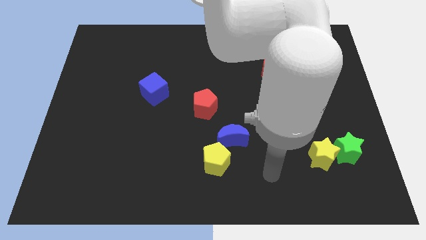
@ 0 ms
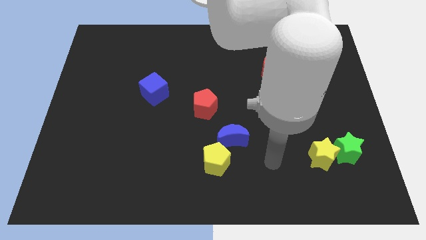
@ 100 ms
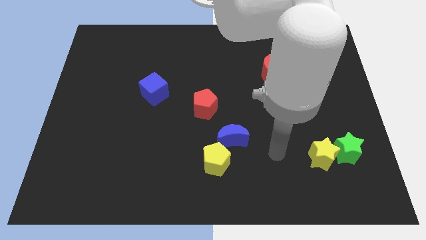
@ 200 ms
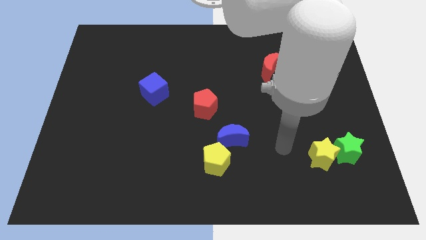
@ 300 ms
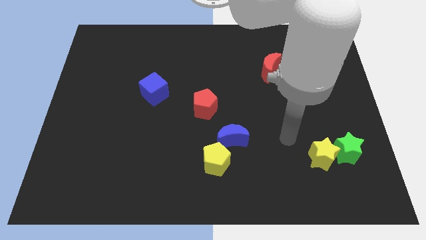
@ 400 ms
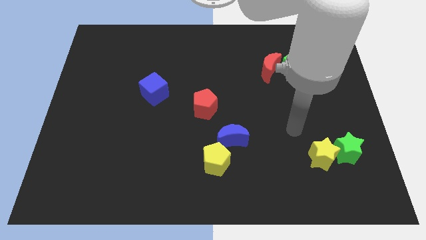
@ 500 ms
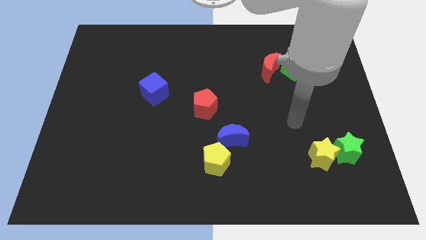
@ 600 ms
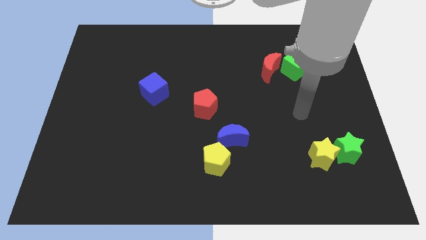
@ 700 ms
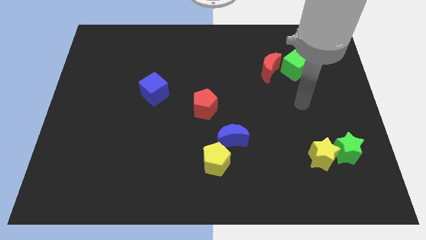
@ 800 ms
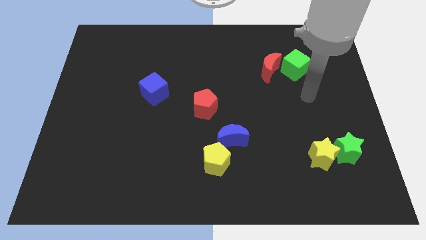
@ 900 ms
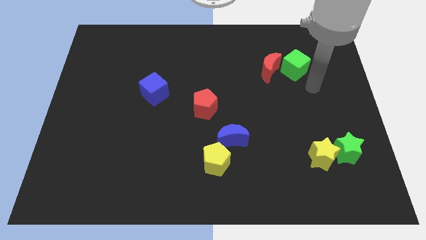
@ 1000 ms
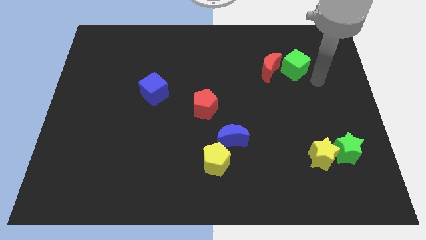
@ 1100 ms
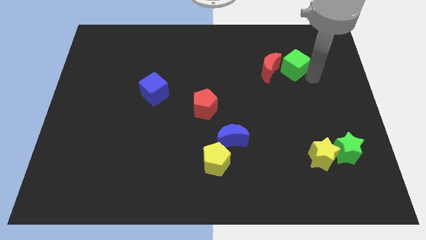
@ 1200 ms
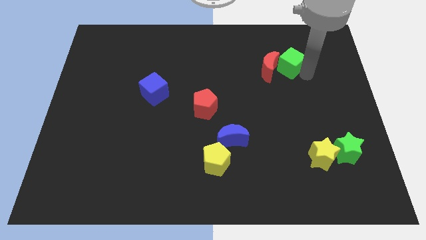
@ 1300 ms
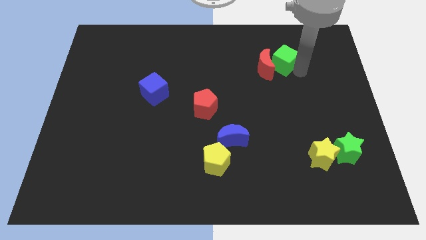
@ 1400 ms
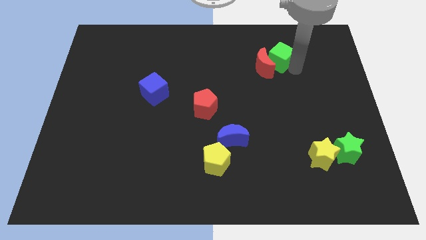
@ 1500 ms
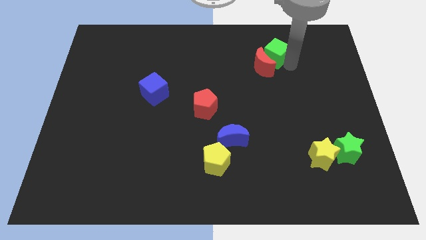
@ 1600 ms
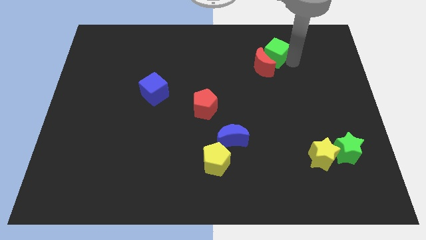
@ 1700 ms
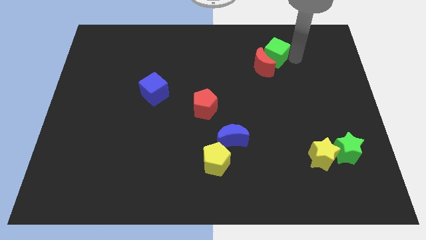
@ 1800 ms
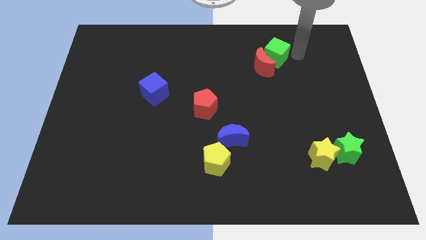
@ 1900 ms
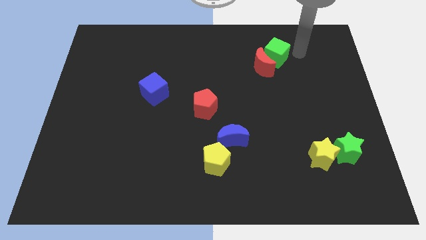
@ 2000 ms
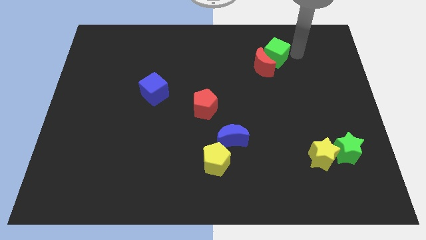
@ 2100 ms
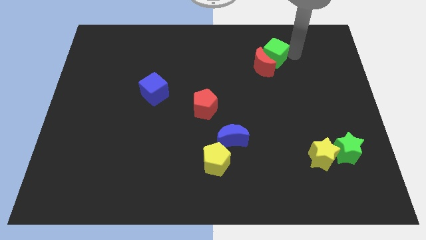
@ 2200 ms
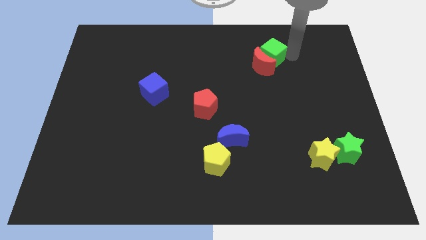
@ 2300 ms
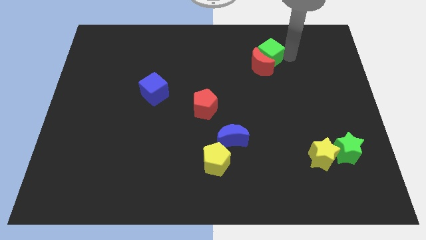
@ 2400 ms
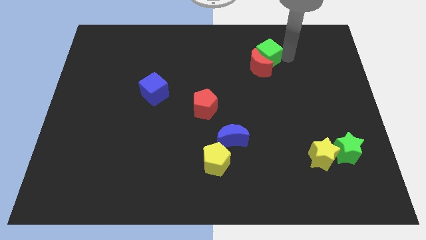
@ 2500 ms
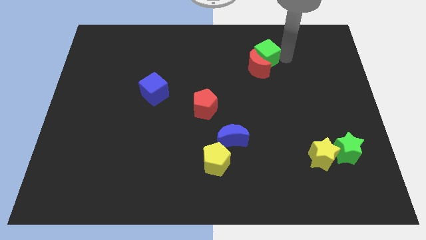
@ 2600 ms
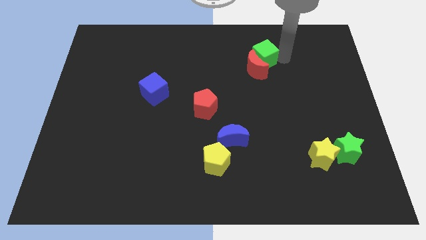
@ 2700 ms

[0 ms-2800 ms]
slightly slide the green cube left

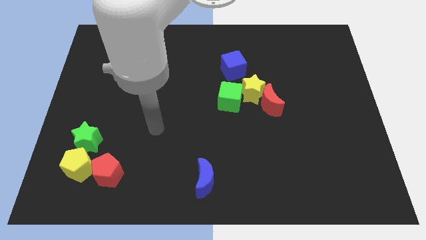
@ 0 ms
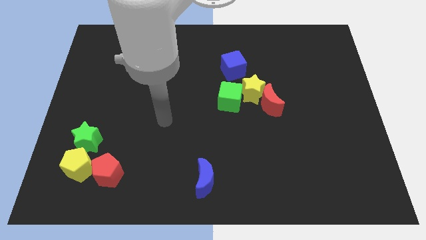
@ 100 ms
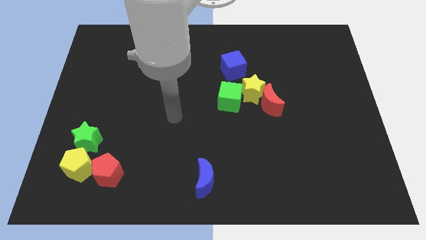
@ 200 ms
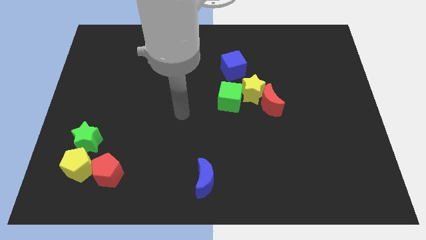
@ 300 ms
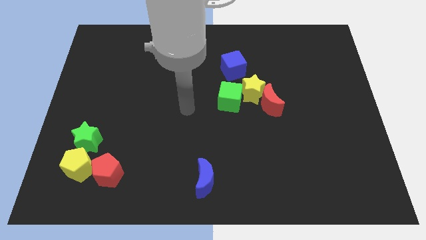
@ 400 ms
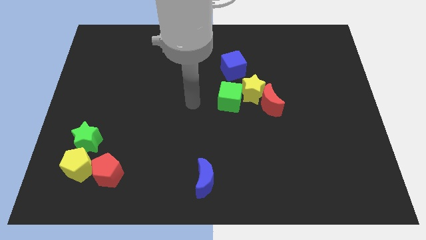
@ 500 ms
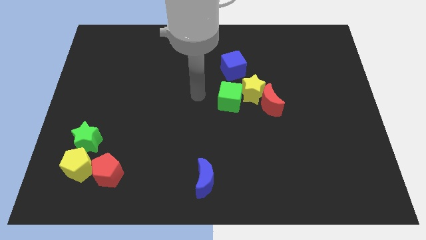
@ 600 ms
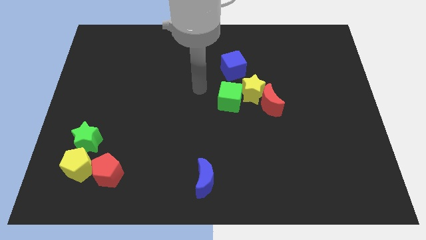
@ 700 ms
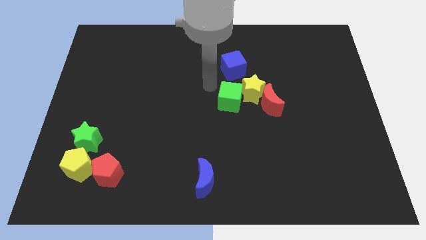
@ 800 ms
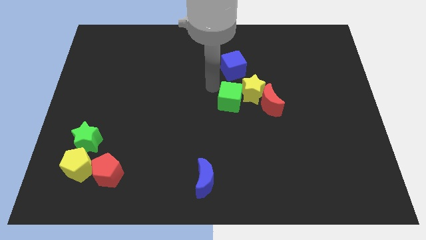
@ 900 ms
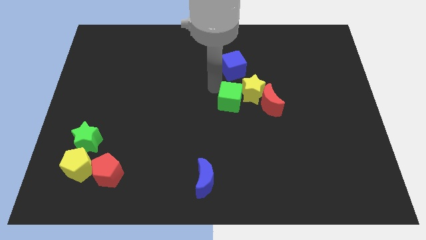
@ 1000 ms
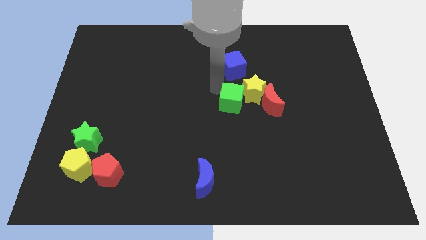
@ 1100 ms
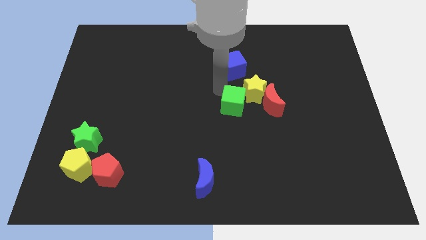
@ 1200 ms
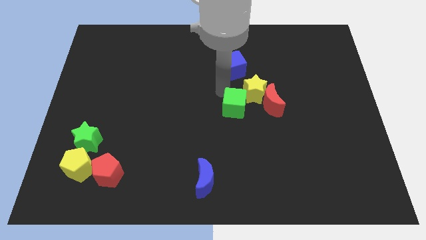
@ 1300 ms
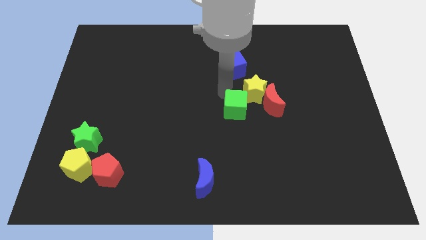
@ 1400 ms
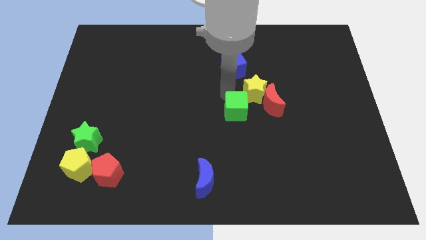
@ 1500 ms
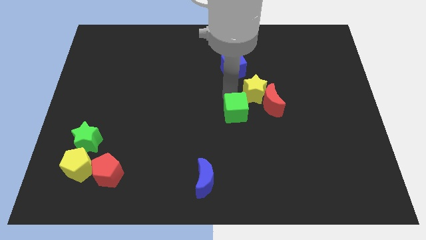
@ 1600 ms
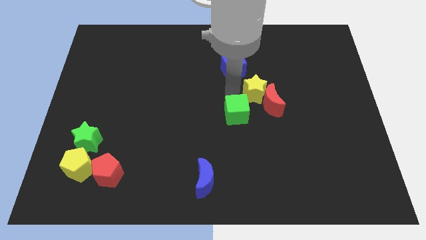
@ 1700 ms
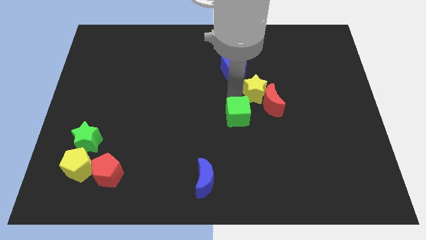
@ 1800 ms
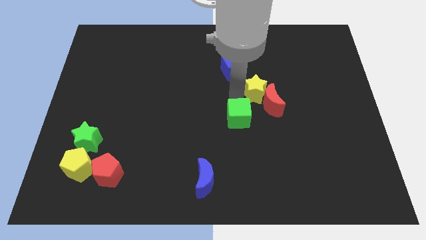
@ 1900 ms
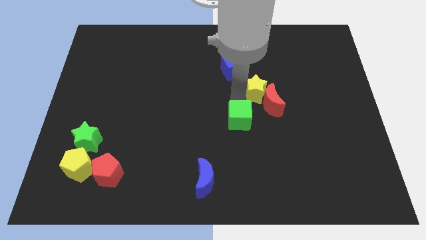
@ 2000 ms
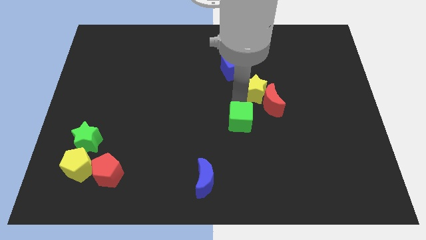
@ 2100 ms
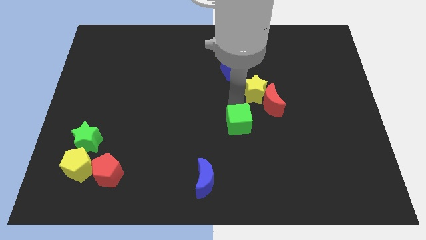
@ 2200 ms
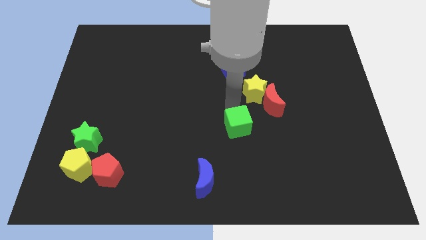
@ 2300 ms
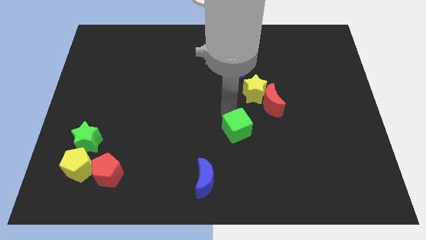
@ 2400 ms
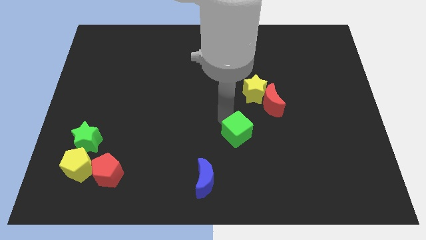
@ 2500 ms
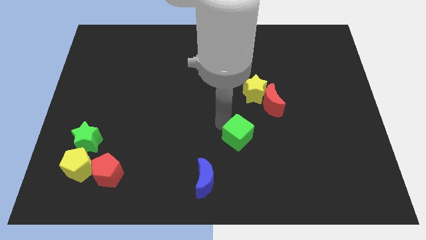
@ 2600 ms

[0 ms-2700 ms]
move the green cube downwards and right a bit

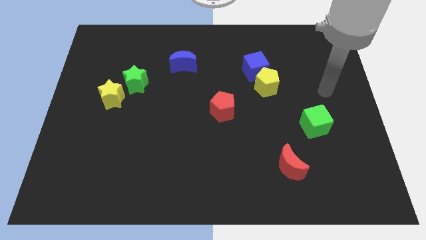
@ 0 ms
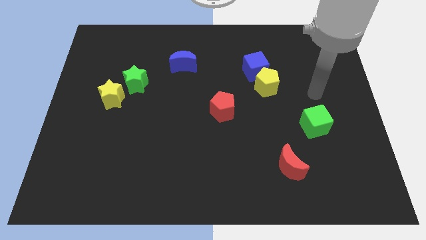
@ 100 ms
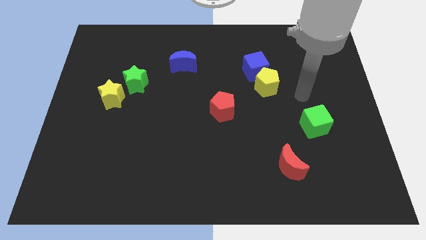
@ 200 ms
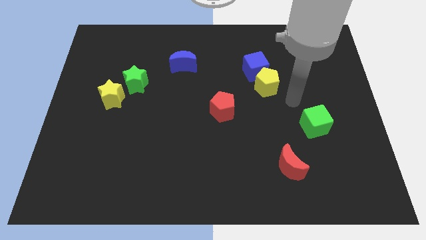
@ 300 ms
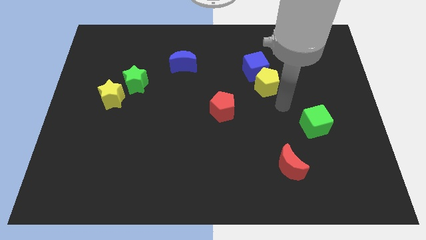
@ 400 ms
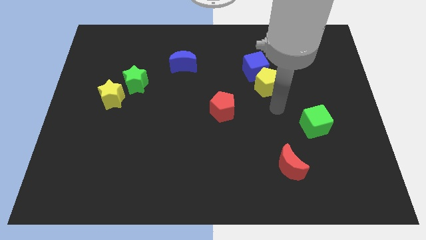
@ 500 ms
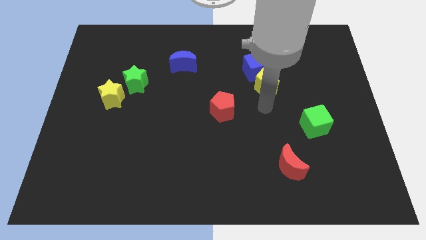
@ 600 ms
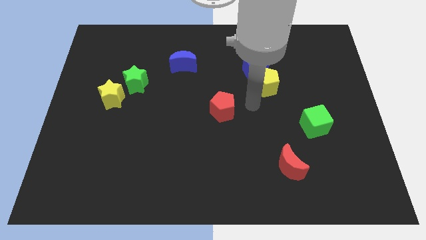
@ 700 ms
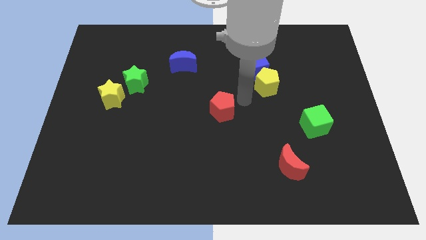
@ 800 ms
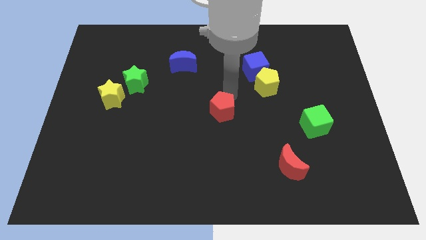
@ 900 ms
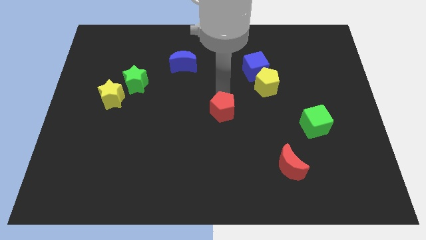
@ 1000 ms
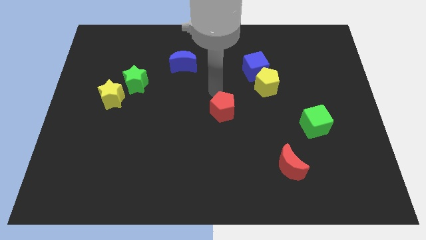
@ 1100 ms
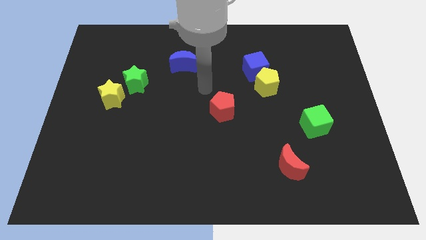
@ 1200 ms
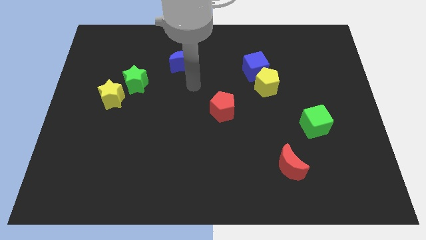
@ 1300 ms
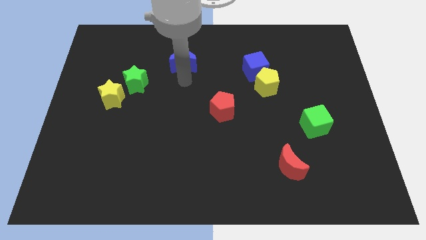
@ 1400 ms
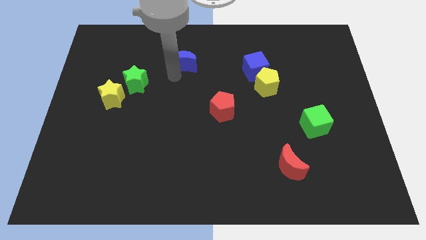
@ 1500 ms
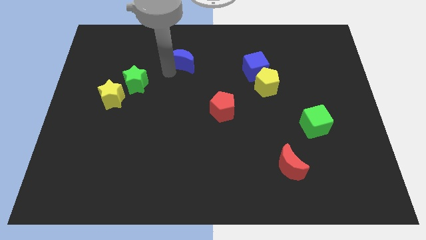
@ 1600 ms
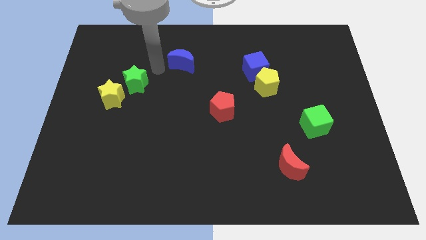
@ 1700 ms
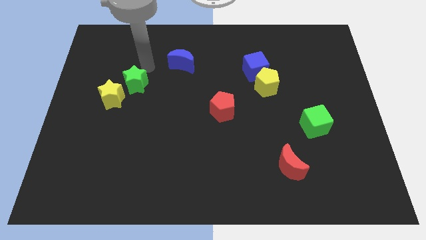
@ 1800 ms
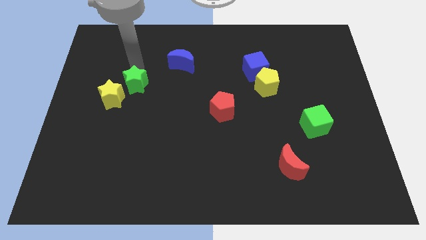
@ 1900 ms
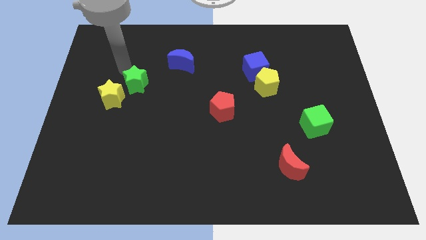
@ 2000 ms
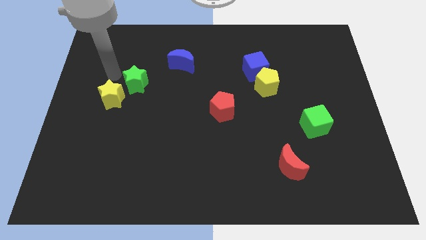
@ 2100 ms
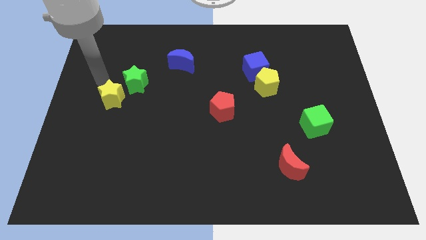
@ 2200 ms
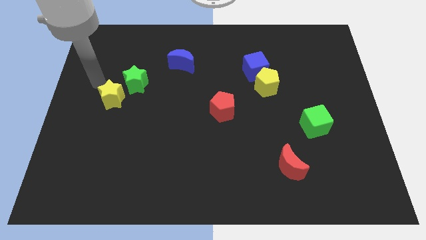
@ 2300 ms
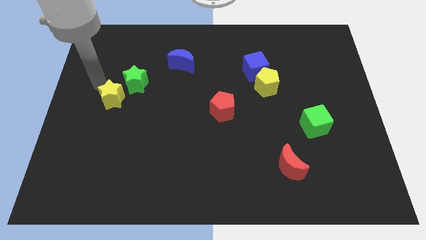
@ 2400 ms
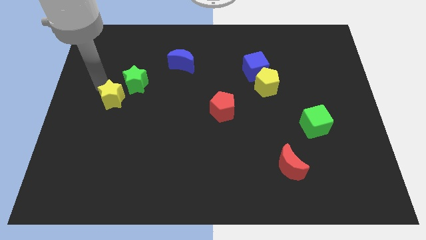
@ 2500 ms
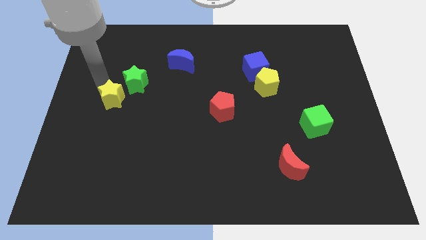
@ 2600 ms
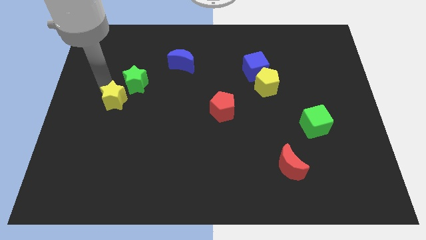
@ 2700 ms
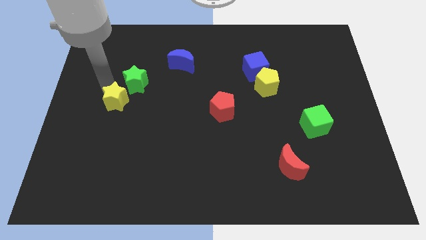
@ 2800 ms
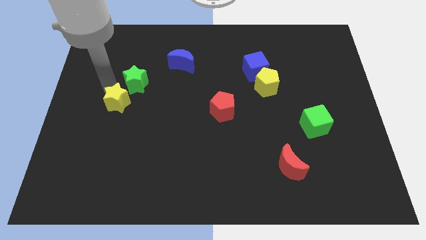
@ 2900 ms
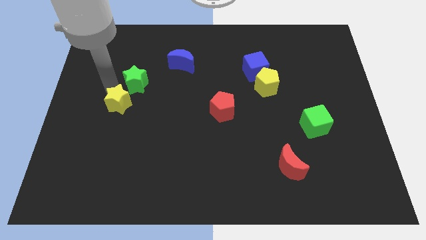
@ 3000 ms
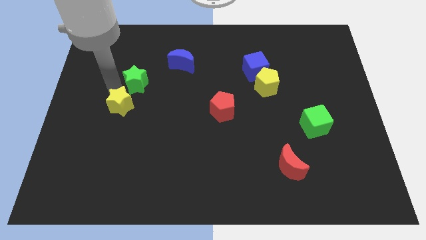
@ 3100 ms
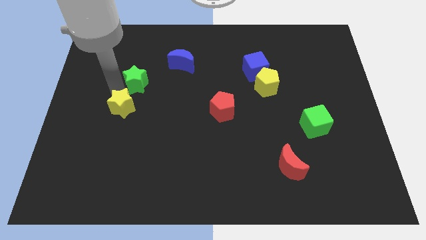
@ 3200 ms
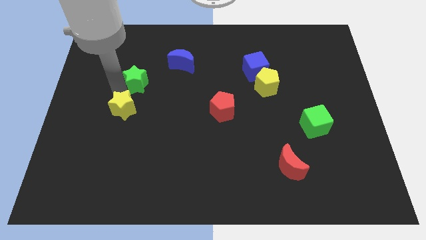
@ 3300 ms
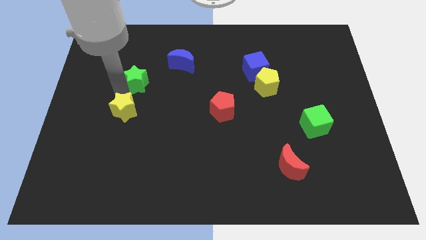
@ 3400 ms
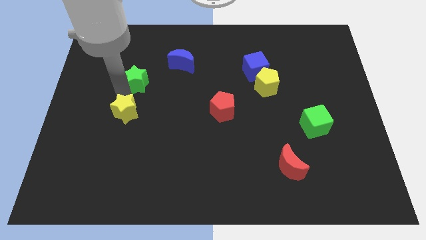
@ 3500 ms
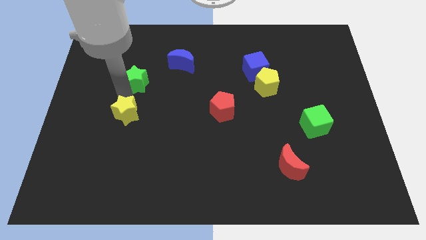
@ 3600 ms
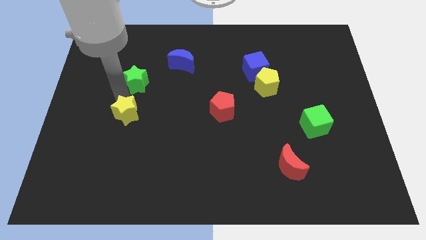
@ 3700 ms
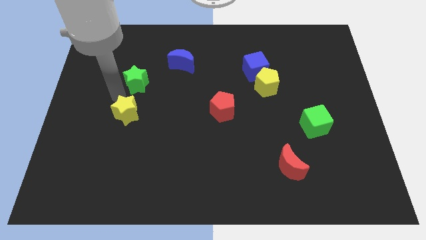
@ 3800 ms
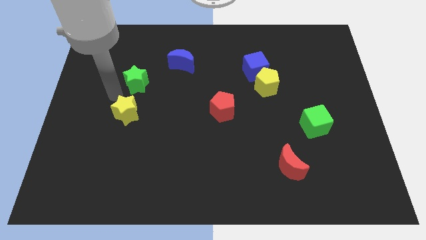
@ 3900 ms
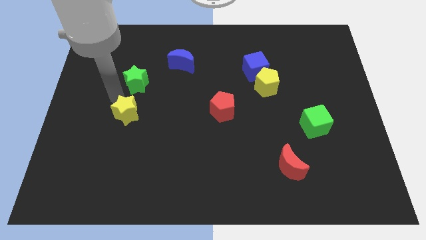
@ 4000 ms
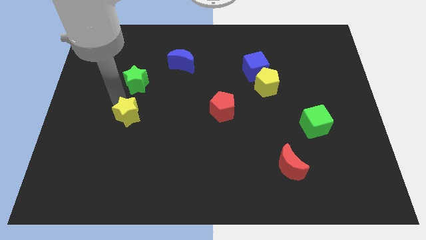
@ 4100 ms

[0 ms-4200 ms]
move the yellow star downwards and then right a little
